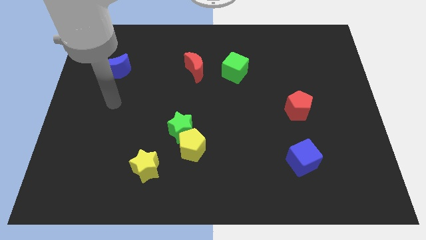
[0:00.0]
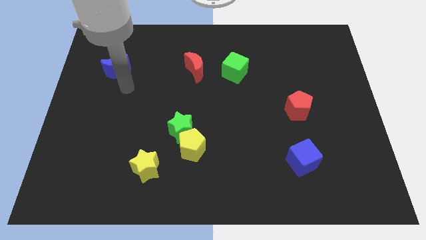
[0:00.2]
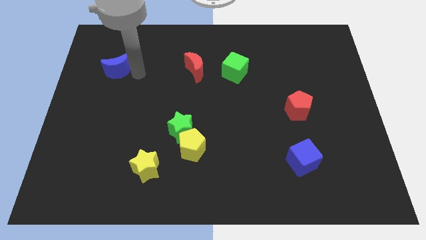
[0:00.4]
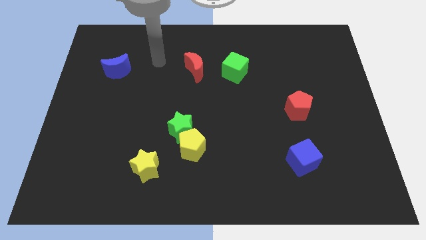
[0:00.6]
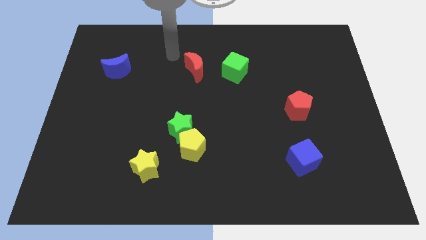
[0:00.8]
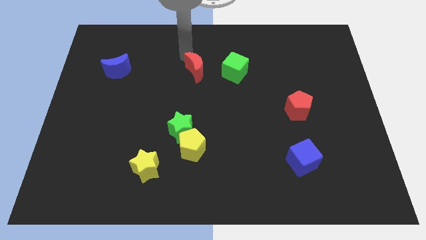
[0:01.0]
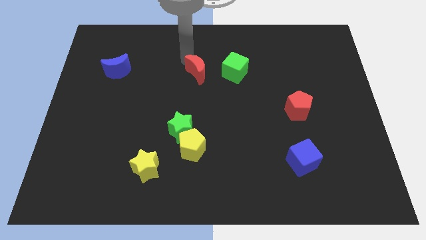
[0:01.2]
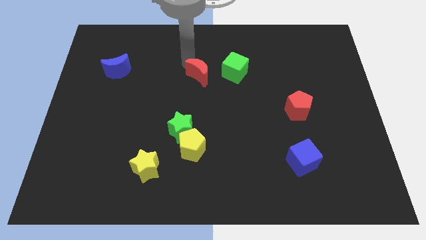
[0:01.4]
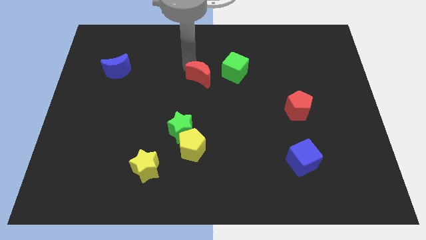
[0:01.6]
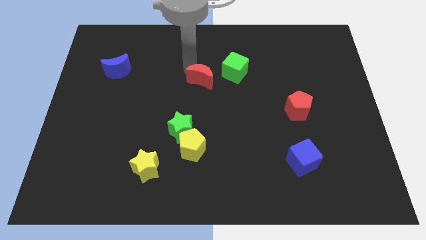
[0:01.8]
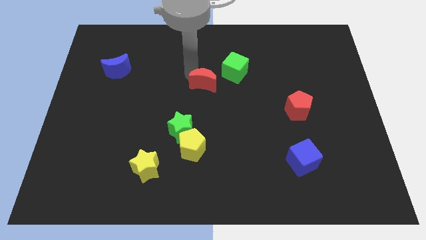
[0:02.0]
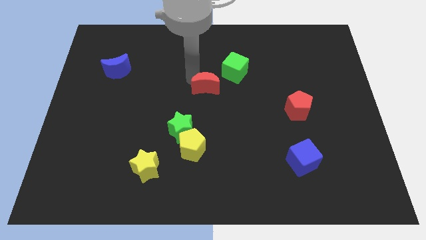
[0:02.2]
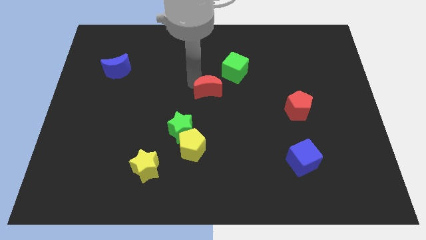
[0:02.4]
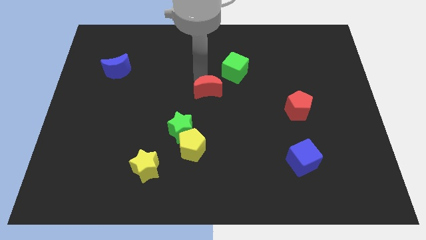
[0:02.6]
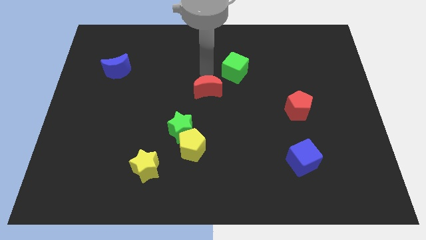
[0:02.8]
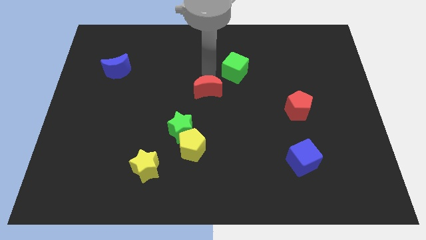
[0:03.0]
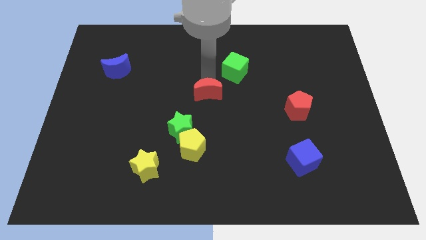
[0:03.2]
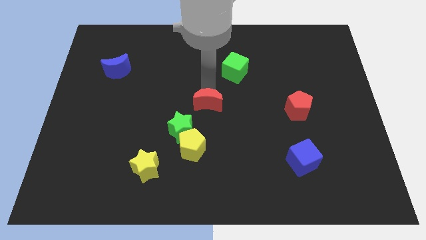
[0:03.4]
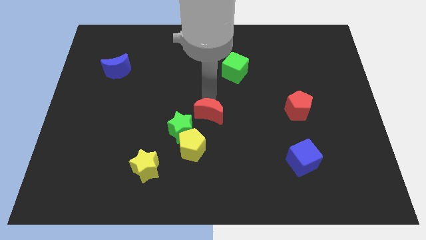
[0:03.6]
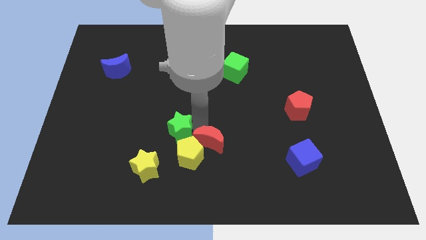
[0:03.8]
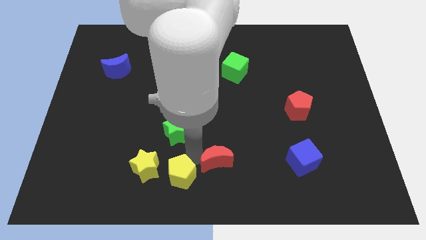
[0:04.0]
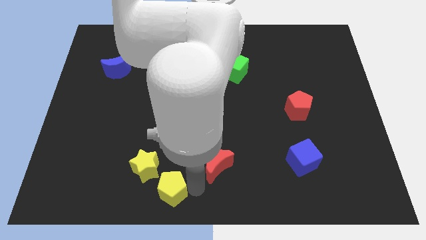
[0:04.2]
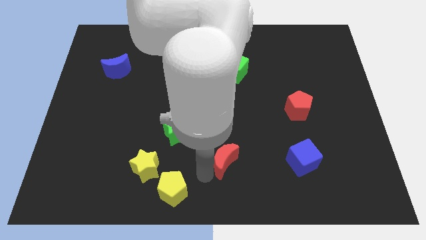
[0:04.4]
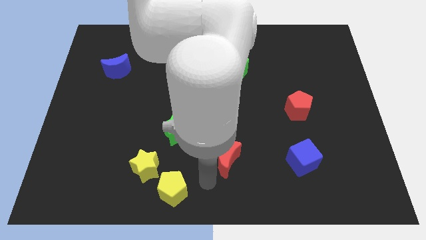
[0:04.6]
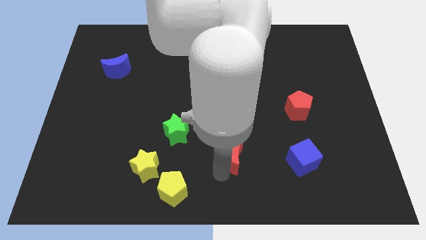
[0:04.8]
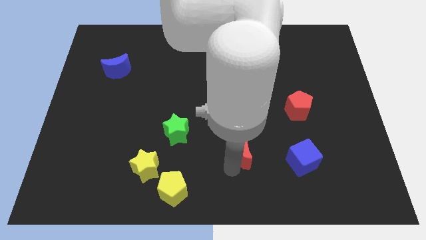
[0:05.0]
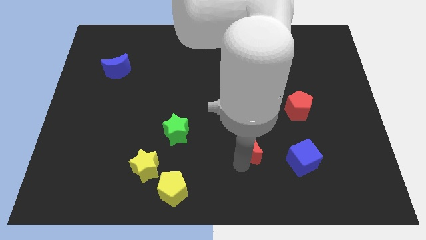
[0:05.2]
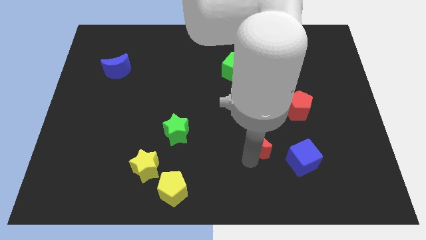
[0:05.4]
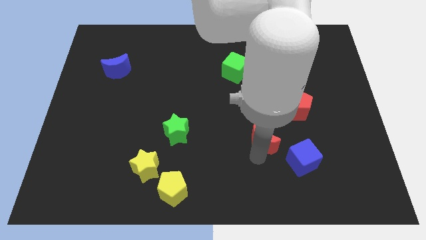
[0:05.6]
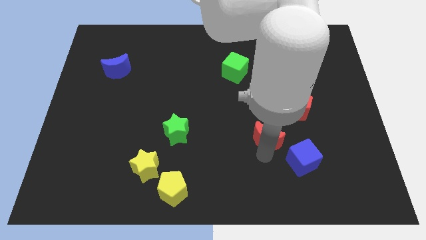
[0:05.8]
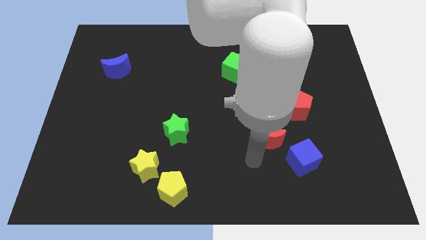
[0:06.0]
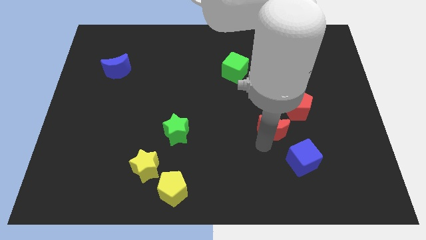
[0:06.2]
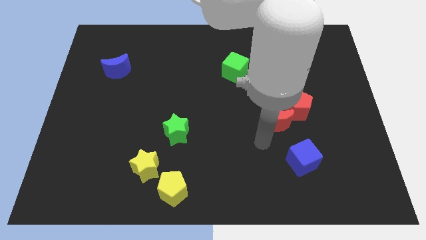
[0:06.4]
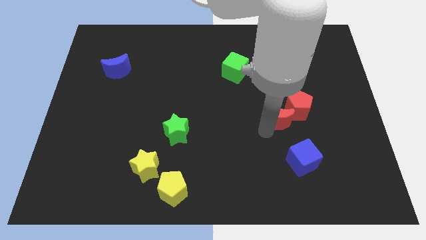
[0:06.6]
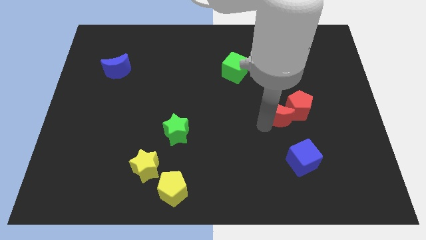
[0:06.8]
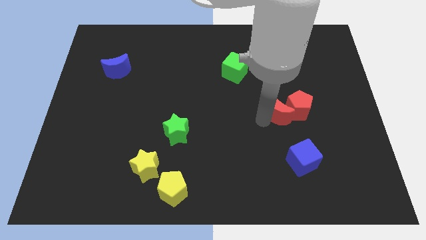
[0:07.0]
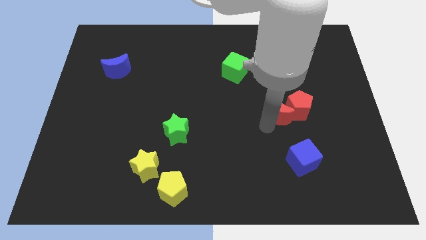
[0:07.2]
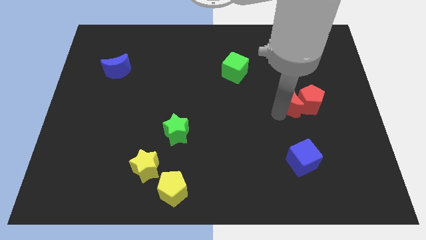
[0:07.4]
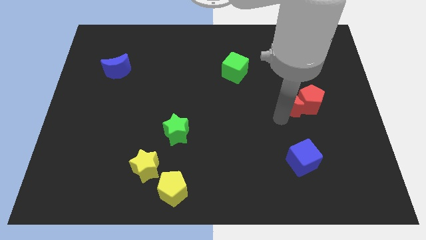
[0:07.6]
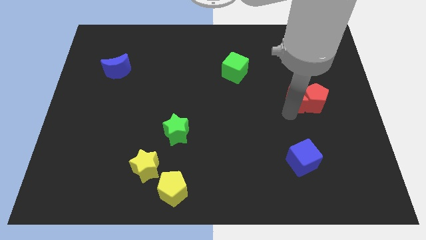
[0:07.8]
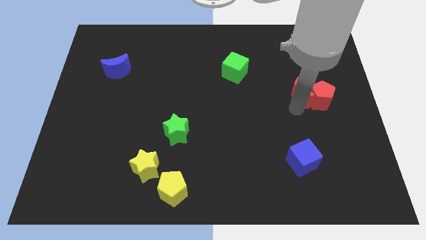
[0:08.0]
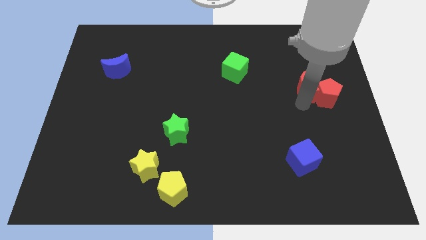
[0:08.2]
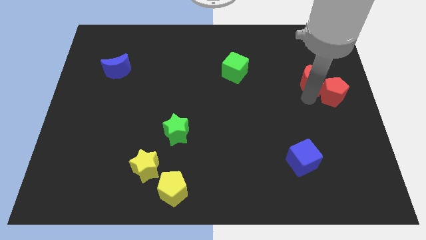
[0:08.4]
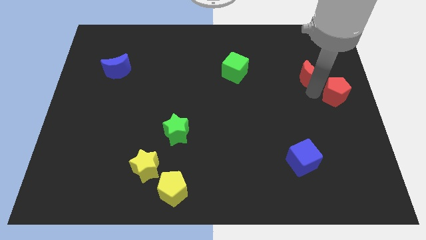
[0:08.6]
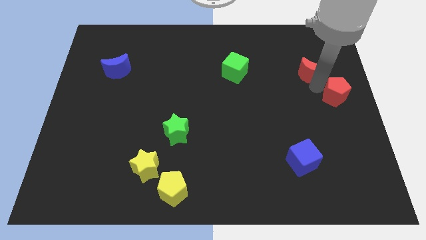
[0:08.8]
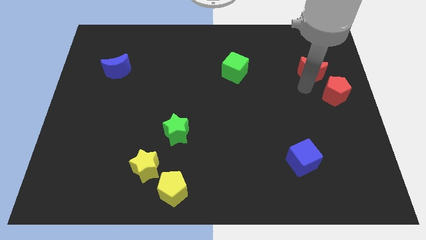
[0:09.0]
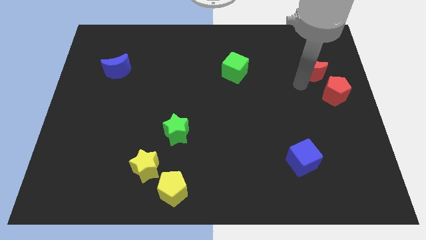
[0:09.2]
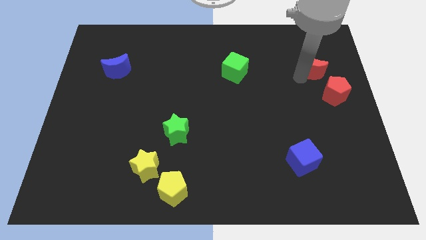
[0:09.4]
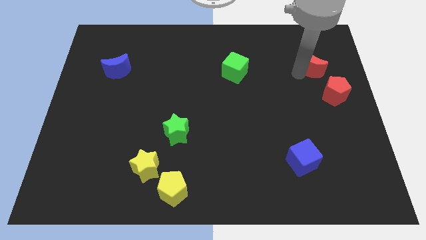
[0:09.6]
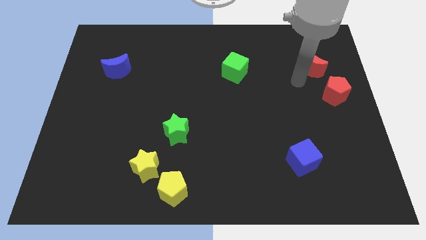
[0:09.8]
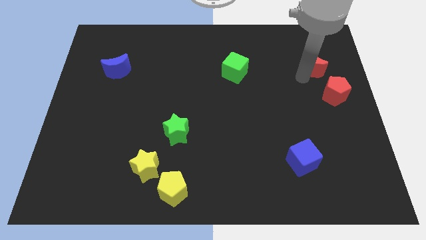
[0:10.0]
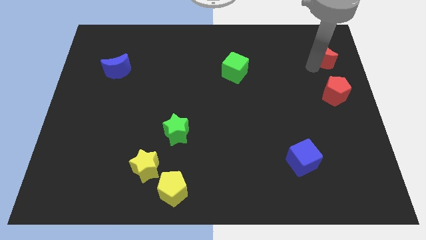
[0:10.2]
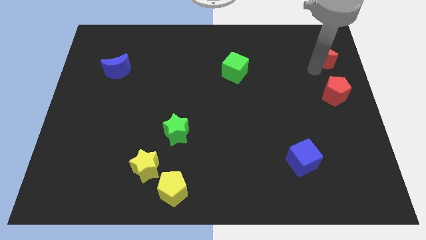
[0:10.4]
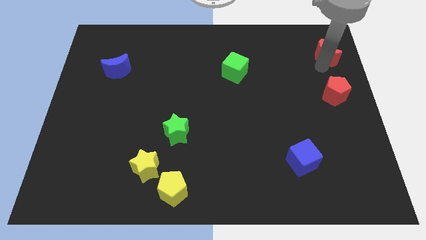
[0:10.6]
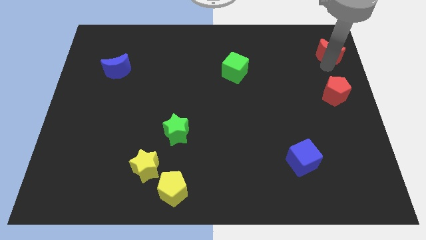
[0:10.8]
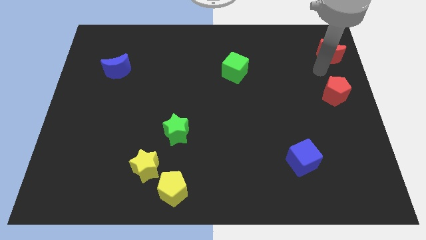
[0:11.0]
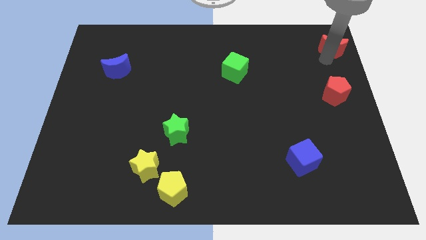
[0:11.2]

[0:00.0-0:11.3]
push the red moon to the top right of the board
